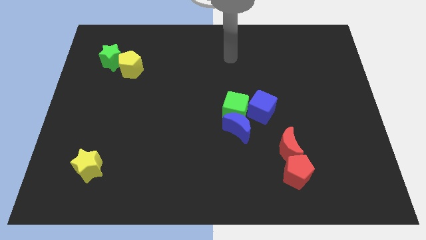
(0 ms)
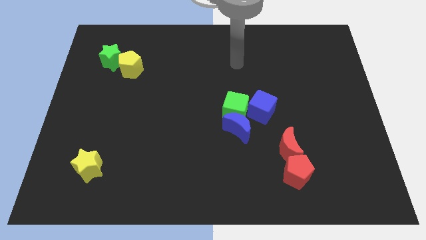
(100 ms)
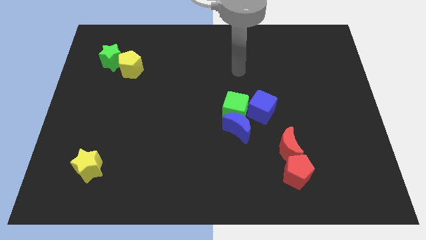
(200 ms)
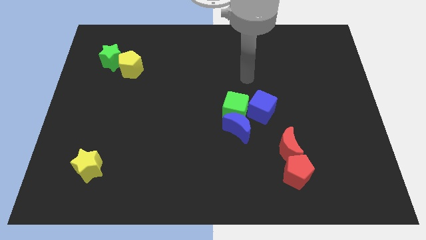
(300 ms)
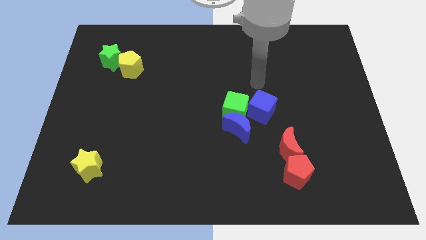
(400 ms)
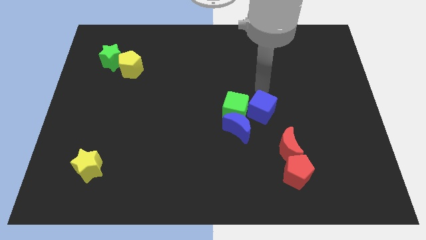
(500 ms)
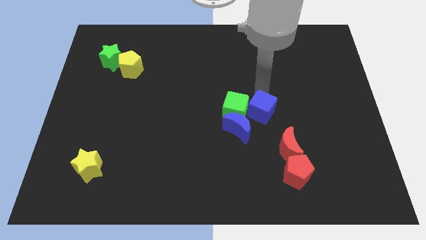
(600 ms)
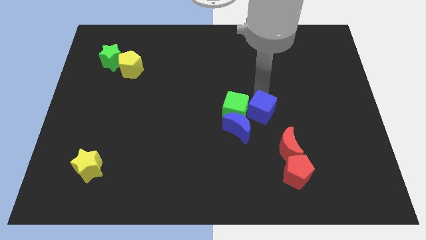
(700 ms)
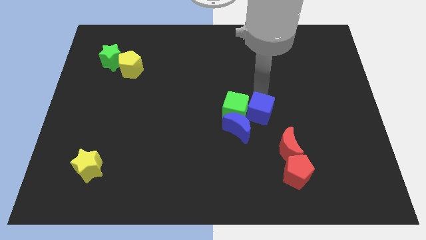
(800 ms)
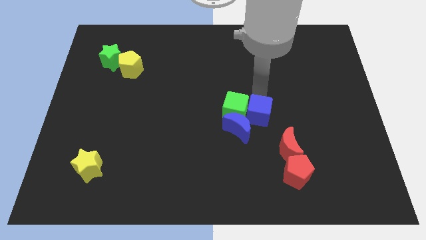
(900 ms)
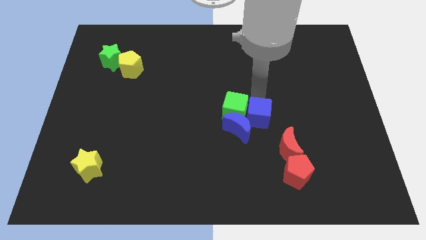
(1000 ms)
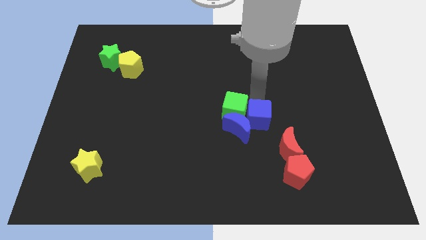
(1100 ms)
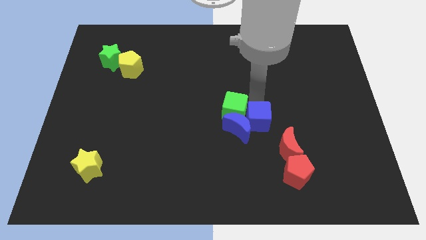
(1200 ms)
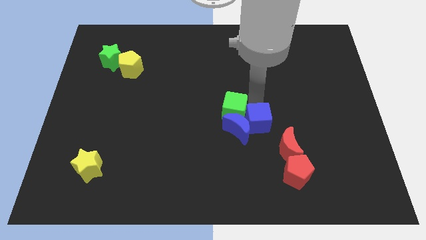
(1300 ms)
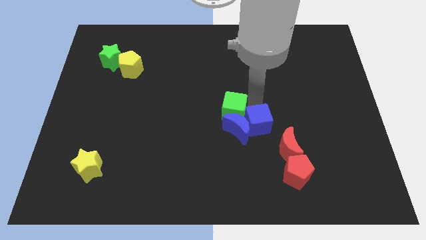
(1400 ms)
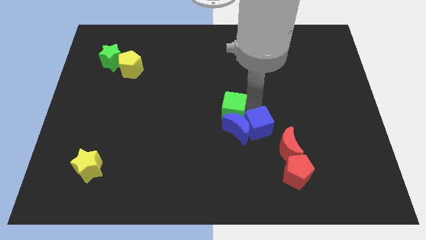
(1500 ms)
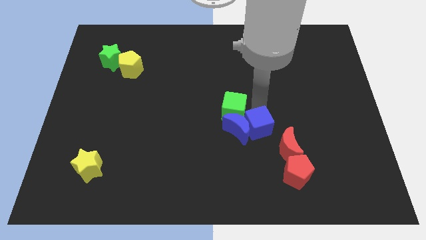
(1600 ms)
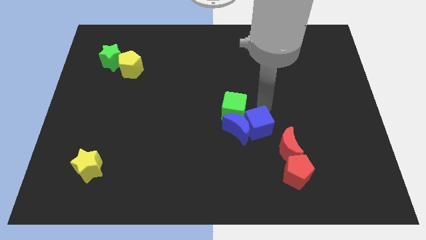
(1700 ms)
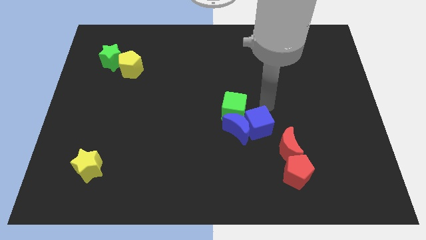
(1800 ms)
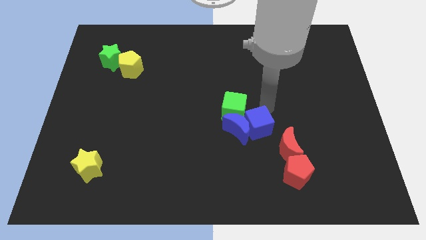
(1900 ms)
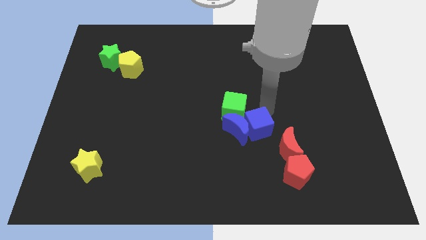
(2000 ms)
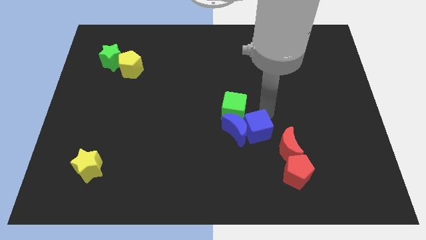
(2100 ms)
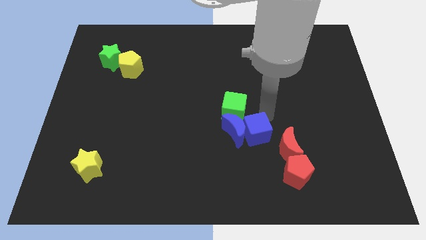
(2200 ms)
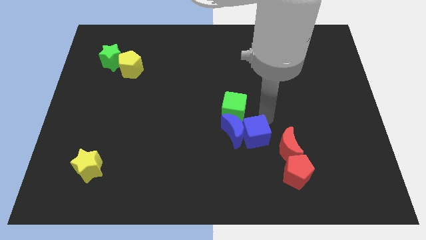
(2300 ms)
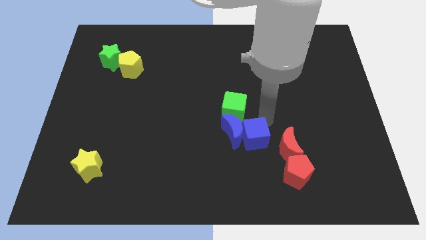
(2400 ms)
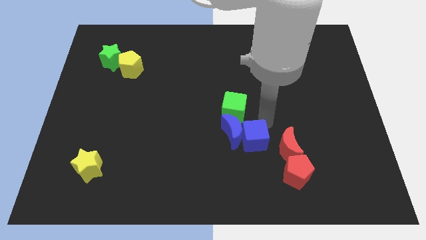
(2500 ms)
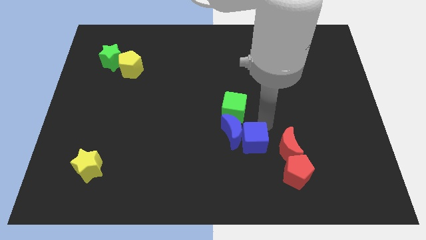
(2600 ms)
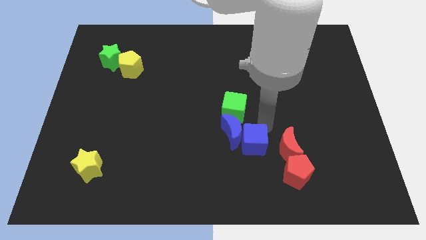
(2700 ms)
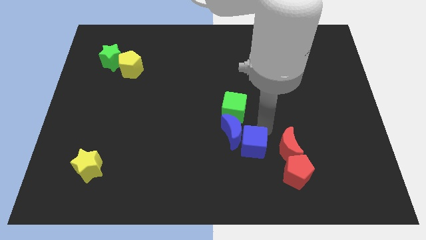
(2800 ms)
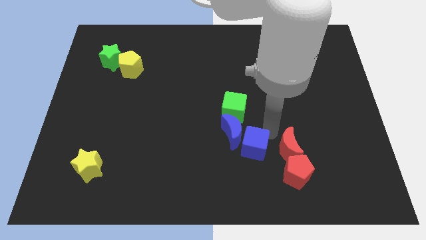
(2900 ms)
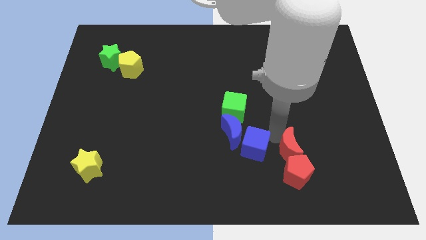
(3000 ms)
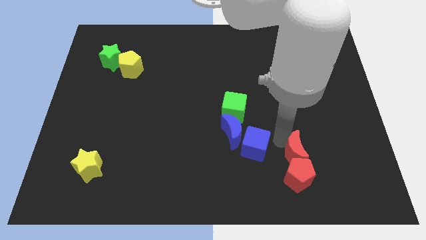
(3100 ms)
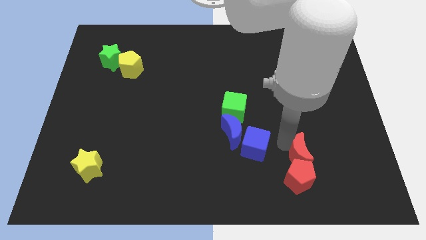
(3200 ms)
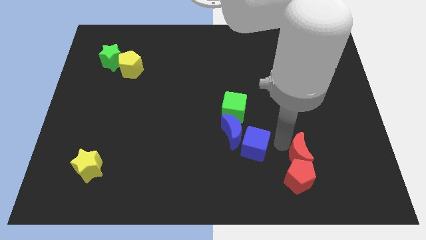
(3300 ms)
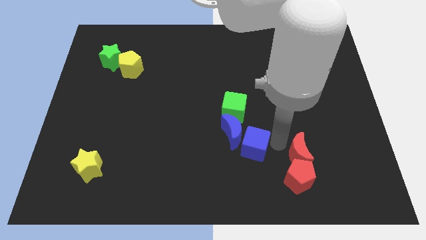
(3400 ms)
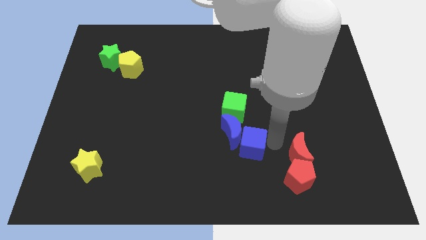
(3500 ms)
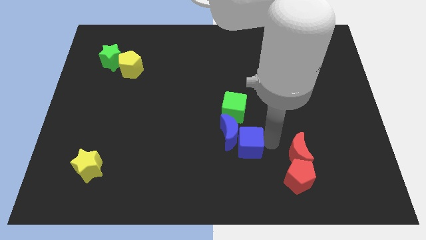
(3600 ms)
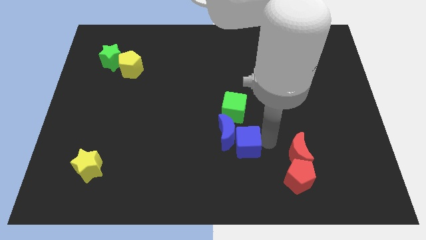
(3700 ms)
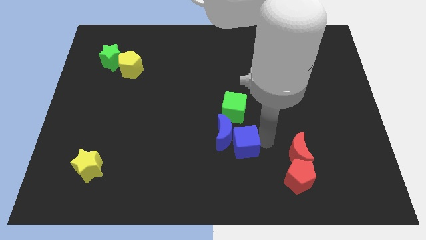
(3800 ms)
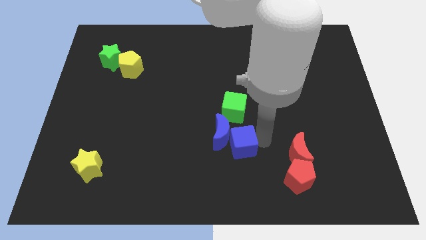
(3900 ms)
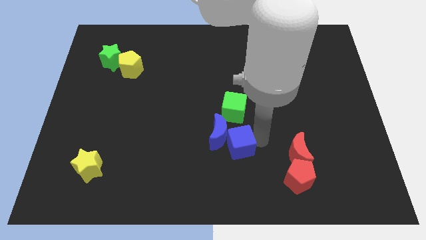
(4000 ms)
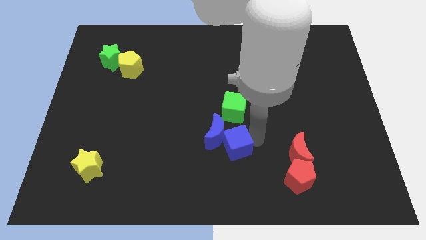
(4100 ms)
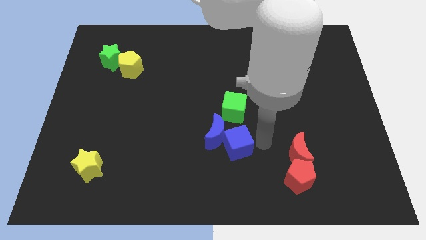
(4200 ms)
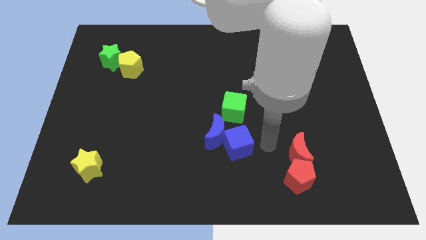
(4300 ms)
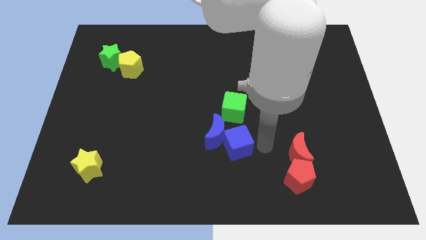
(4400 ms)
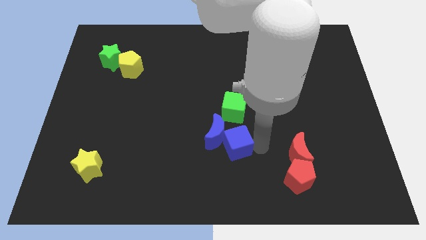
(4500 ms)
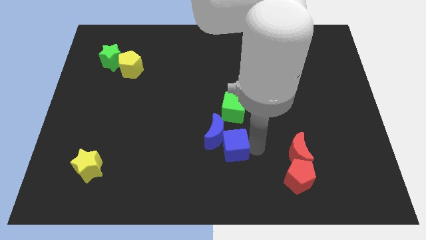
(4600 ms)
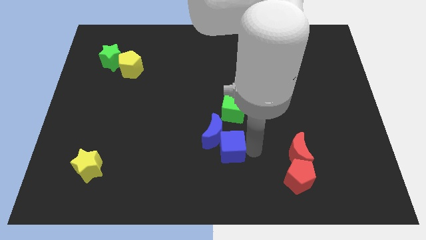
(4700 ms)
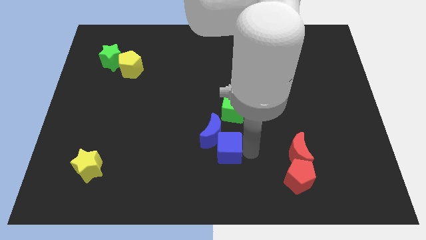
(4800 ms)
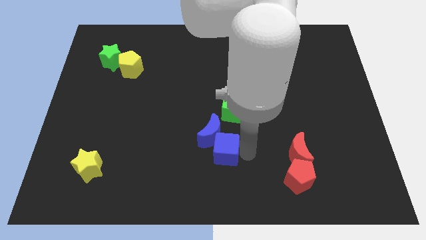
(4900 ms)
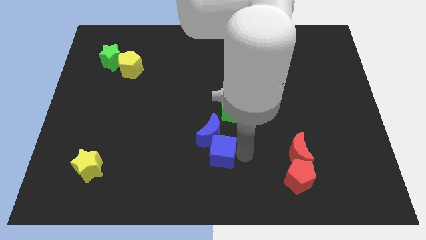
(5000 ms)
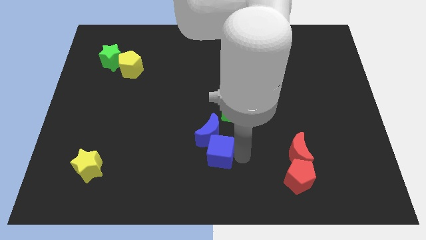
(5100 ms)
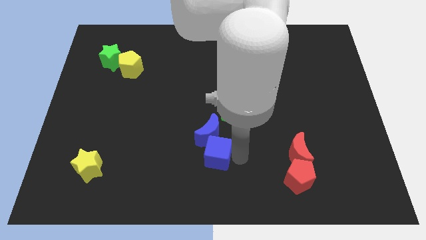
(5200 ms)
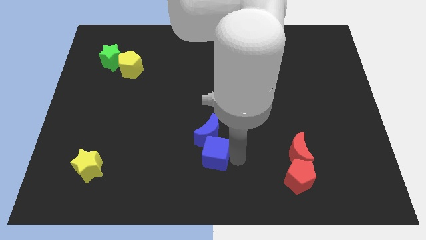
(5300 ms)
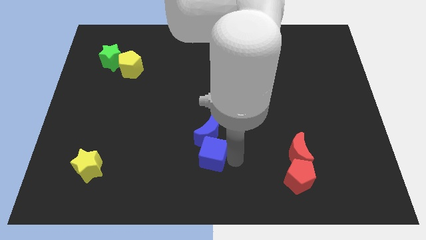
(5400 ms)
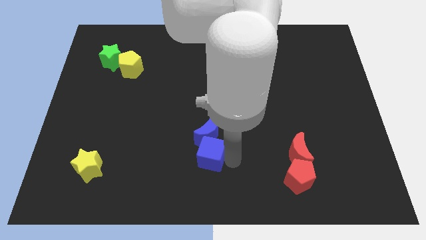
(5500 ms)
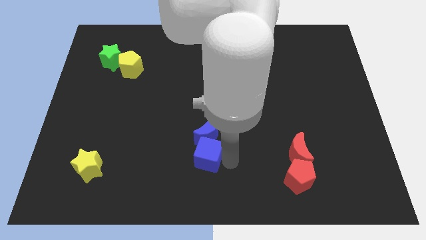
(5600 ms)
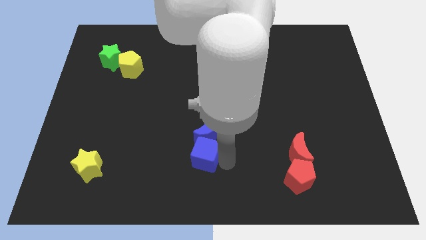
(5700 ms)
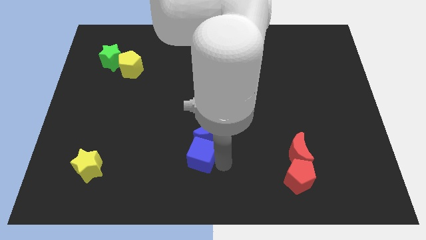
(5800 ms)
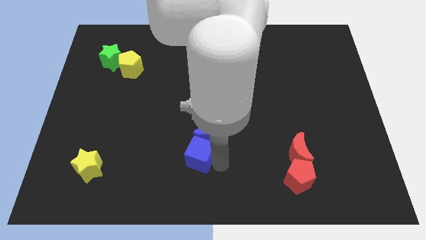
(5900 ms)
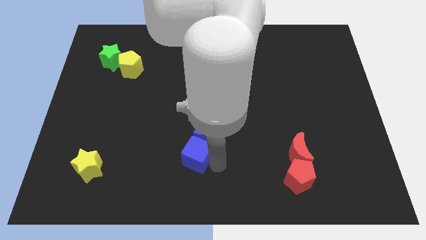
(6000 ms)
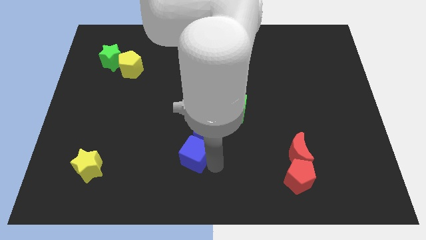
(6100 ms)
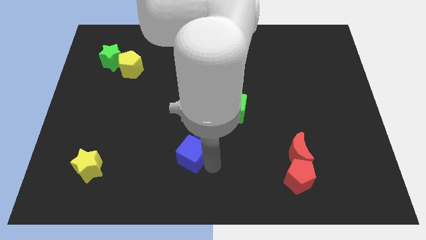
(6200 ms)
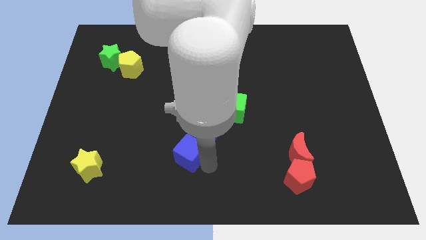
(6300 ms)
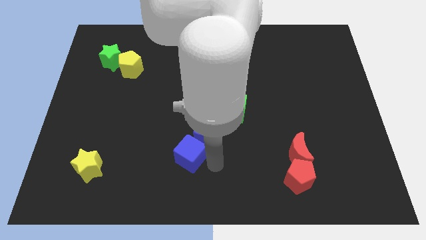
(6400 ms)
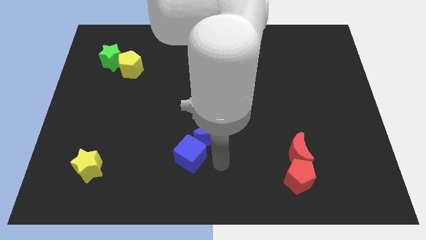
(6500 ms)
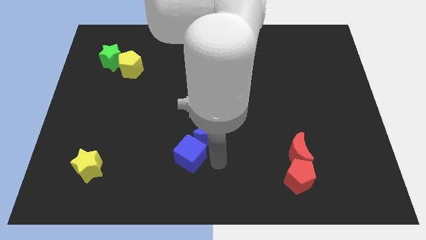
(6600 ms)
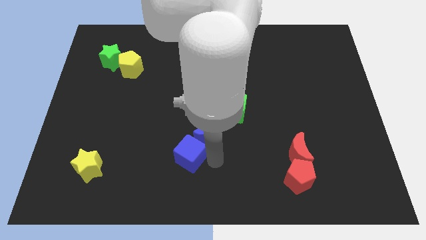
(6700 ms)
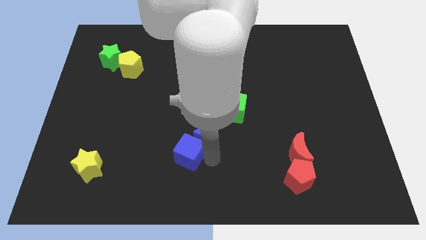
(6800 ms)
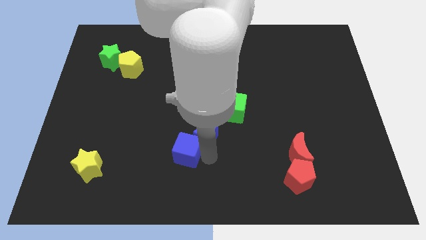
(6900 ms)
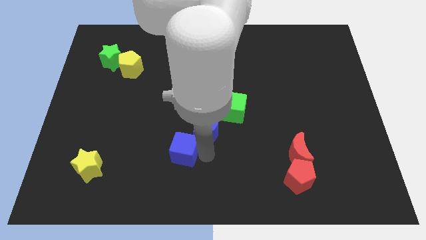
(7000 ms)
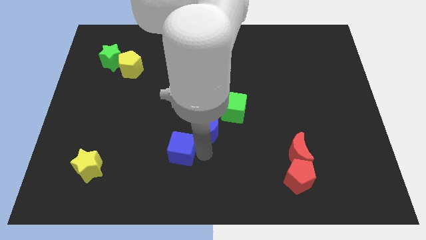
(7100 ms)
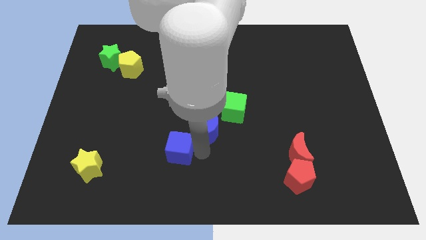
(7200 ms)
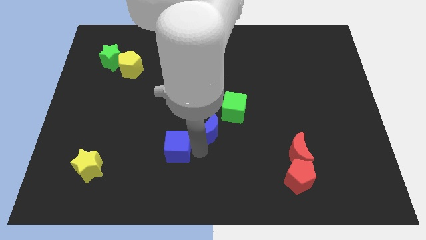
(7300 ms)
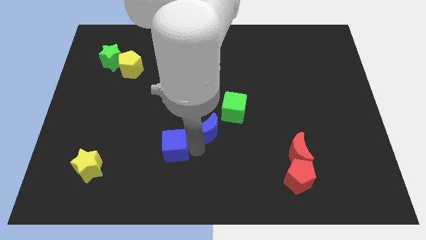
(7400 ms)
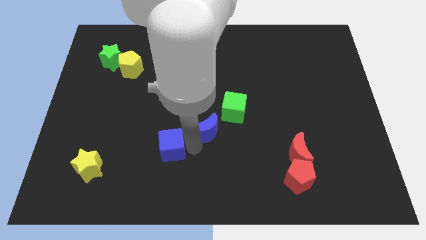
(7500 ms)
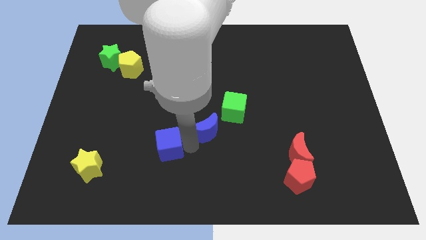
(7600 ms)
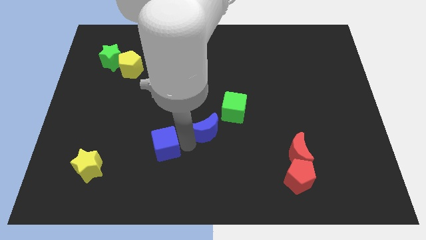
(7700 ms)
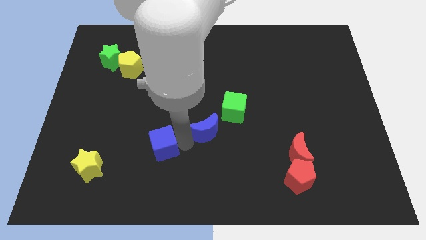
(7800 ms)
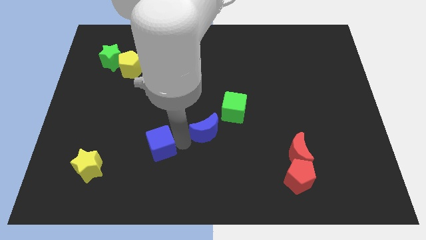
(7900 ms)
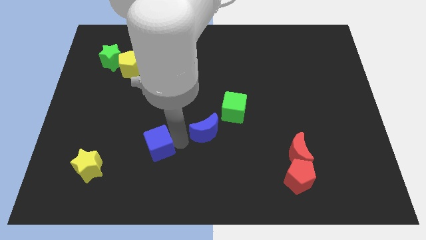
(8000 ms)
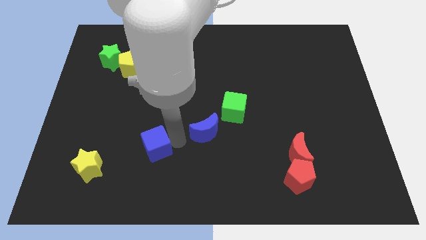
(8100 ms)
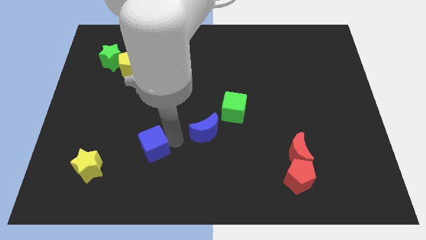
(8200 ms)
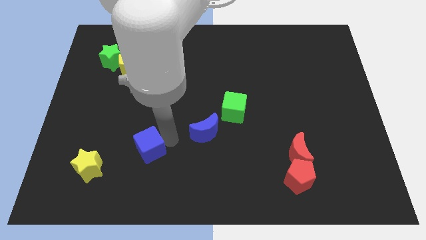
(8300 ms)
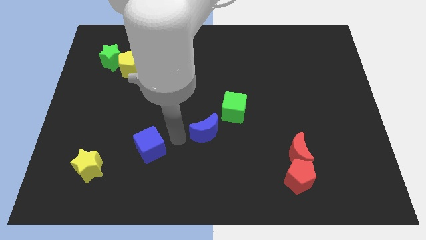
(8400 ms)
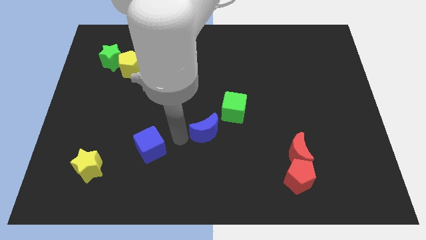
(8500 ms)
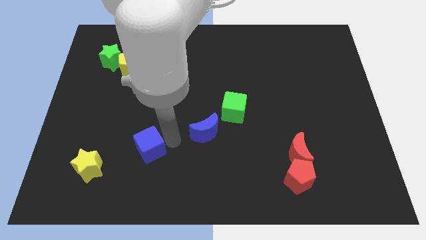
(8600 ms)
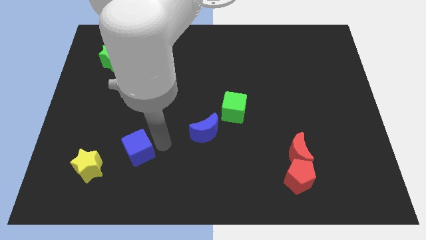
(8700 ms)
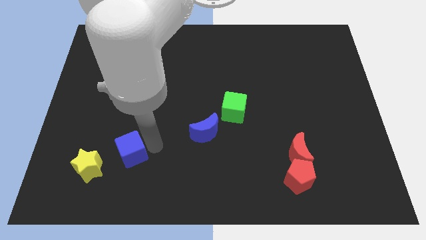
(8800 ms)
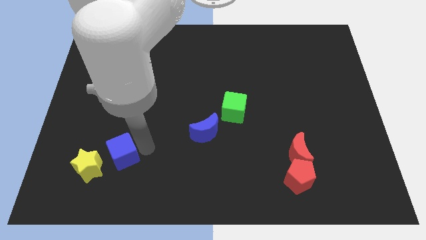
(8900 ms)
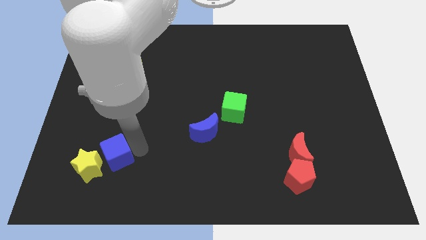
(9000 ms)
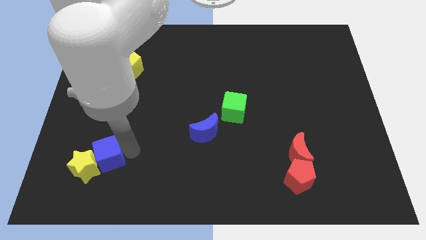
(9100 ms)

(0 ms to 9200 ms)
move the blue cube towards the yellow star
